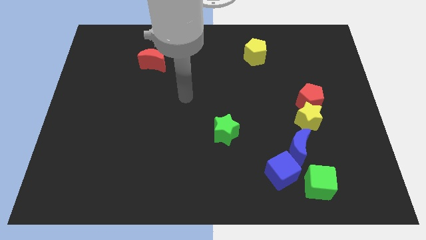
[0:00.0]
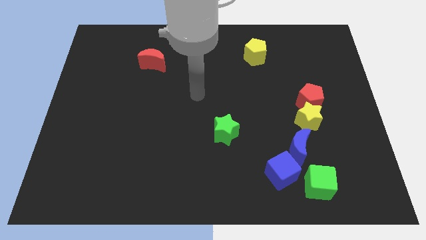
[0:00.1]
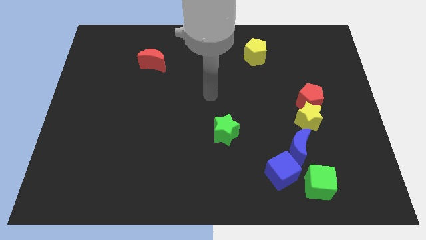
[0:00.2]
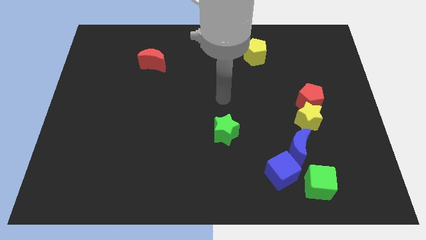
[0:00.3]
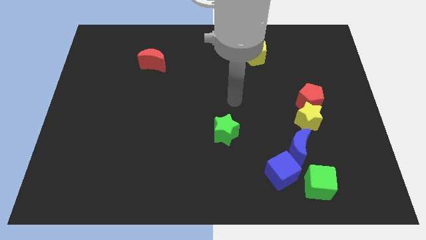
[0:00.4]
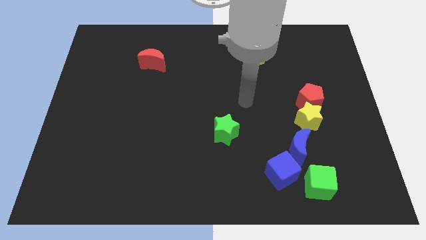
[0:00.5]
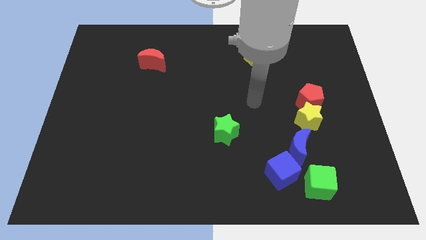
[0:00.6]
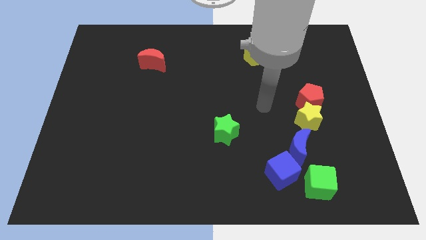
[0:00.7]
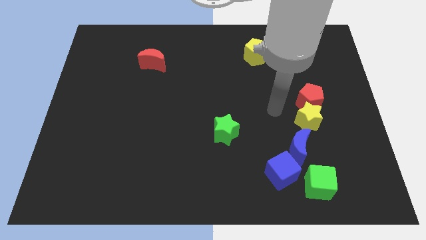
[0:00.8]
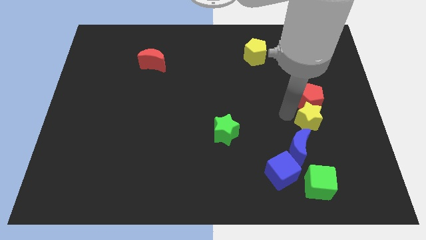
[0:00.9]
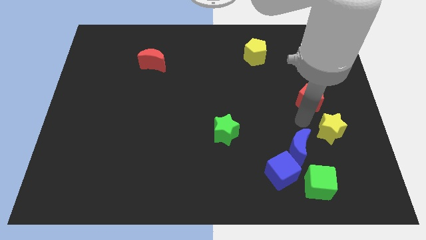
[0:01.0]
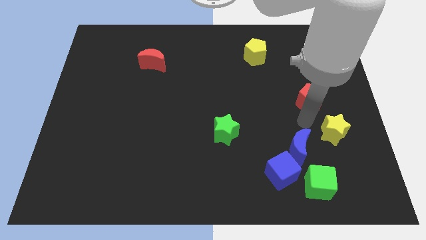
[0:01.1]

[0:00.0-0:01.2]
separate the red pentagon from the yellow star

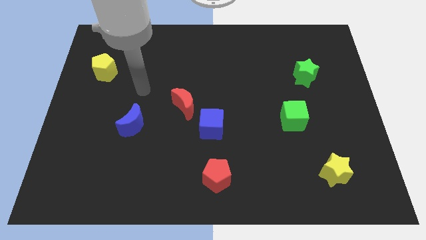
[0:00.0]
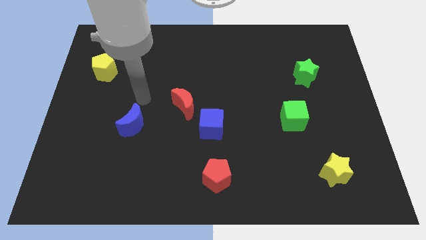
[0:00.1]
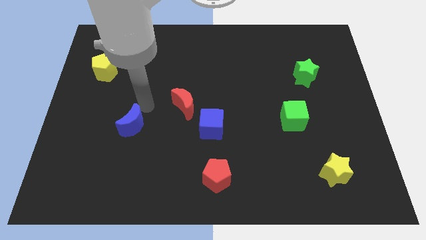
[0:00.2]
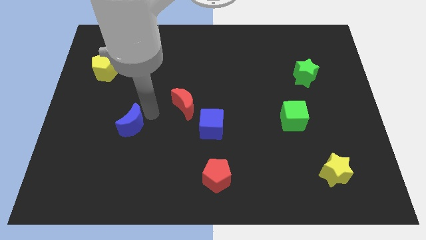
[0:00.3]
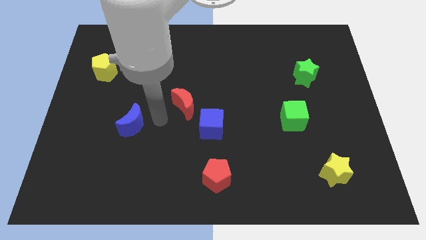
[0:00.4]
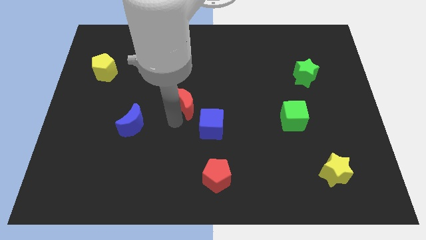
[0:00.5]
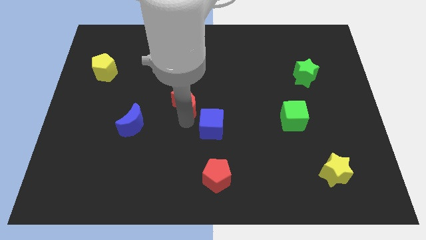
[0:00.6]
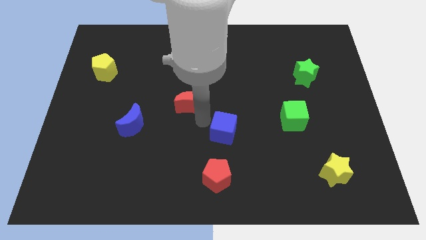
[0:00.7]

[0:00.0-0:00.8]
move the red moon away from the blue cube

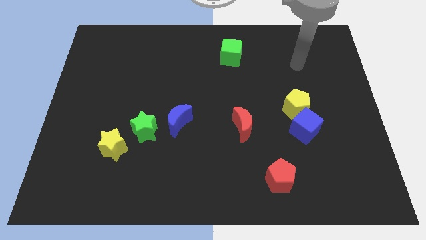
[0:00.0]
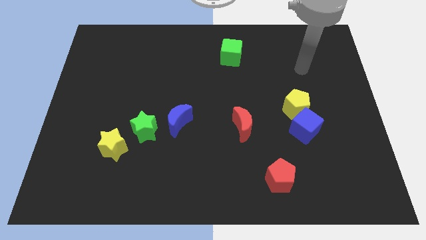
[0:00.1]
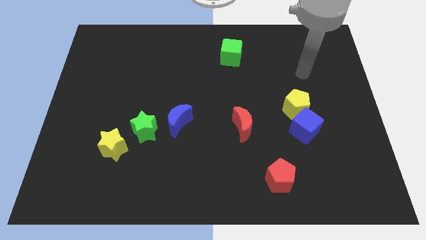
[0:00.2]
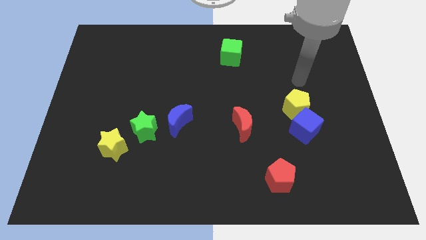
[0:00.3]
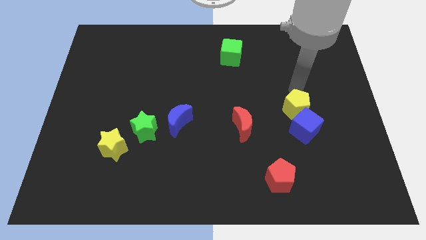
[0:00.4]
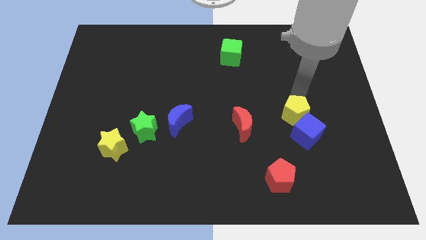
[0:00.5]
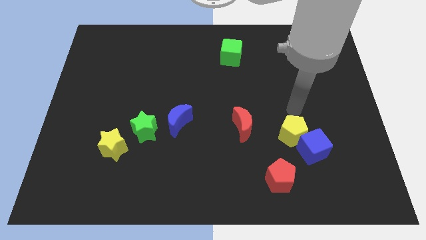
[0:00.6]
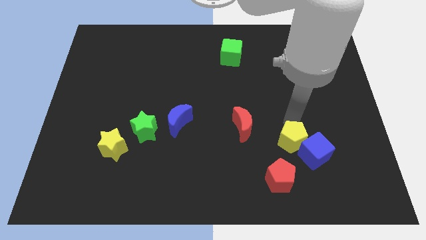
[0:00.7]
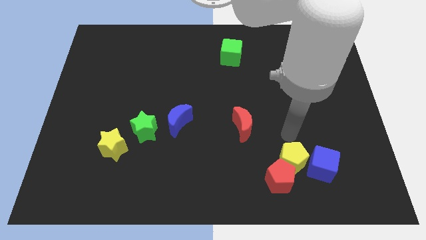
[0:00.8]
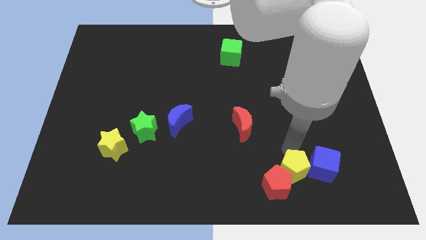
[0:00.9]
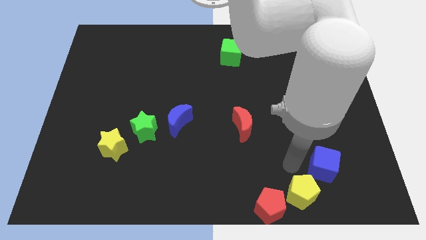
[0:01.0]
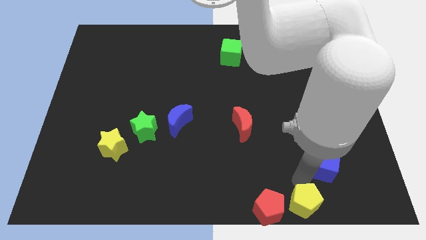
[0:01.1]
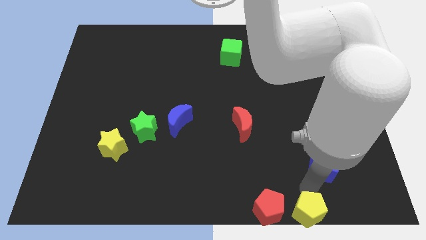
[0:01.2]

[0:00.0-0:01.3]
pull the blue cube apart from the yellow pentagon

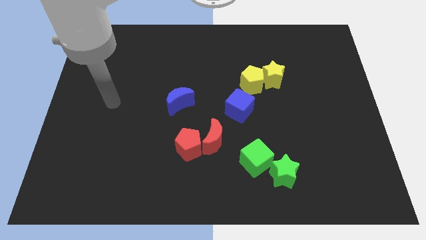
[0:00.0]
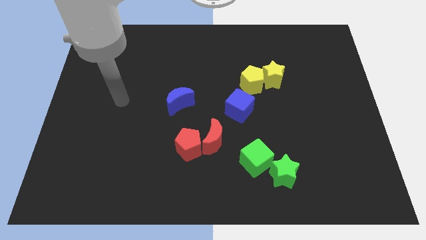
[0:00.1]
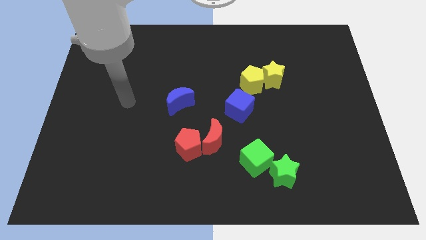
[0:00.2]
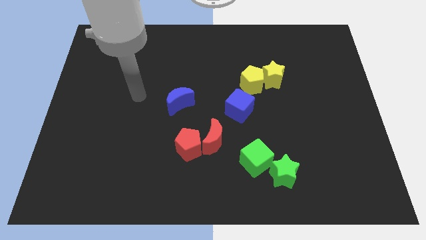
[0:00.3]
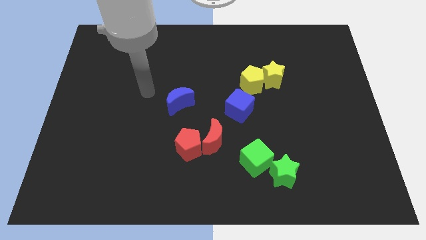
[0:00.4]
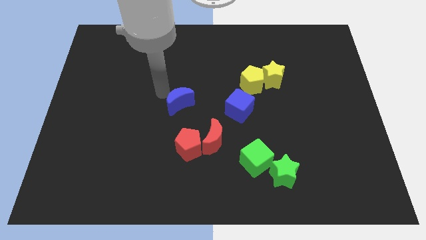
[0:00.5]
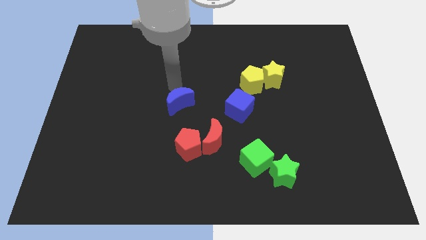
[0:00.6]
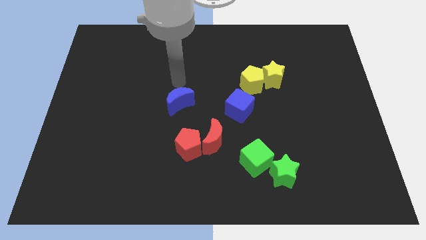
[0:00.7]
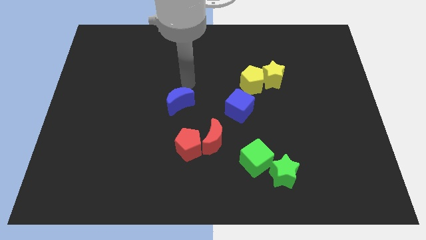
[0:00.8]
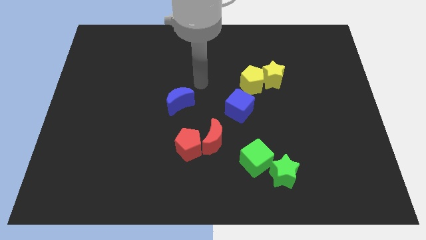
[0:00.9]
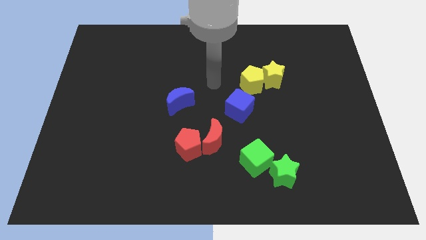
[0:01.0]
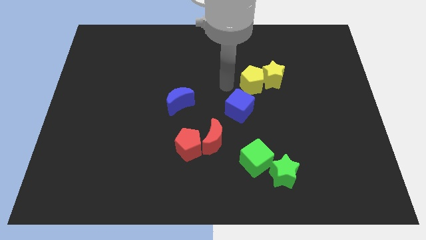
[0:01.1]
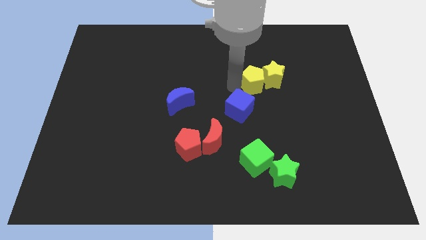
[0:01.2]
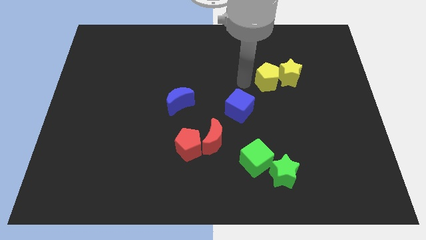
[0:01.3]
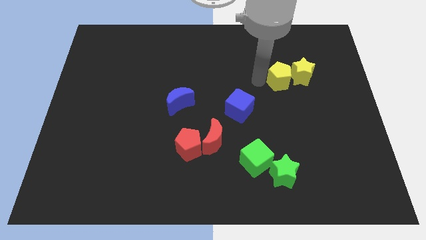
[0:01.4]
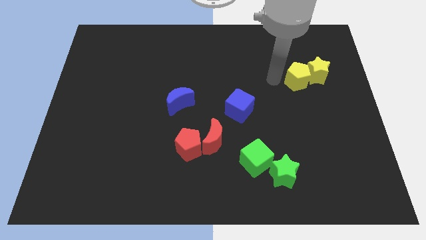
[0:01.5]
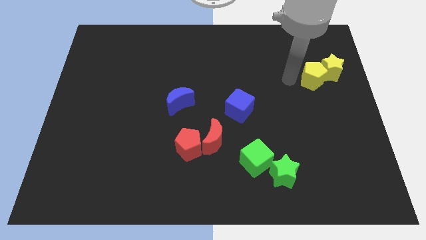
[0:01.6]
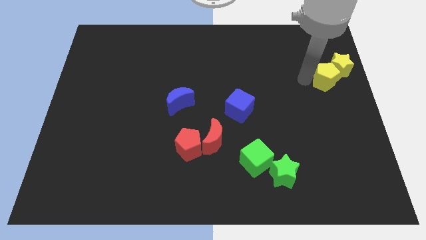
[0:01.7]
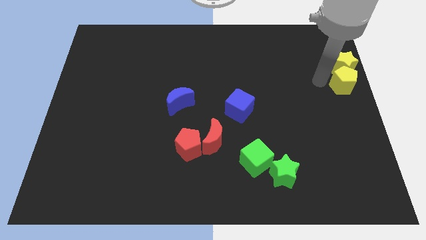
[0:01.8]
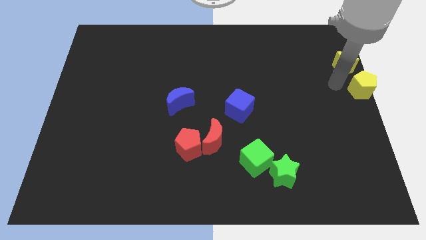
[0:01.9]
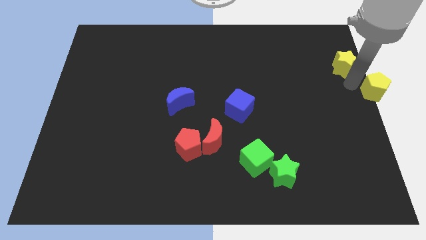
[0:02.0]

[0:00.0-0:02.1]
separate the yellow star from the yellow pentagon

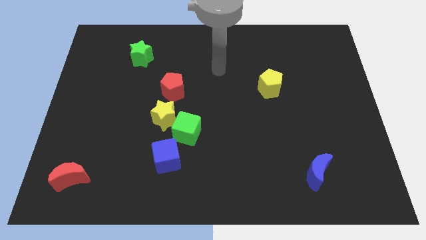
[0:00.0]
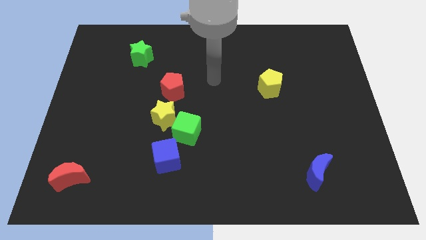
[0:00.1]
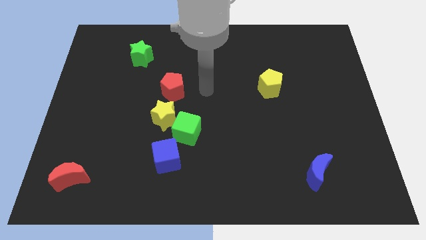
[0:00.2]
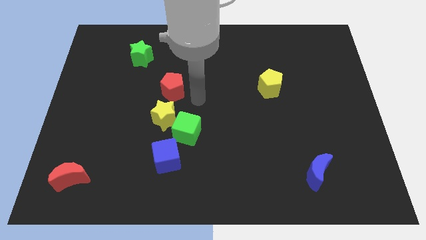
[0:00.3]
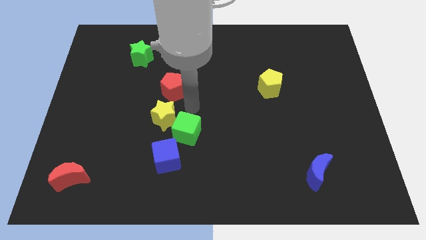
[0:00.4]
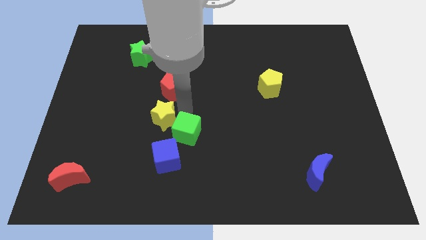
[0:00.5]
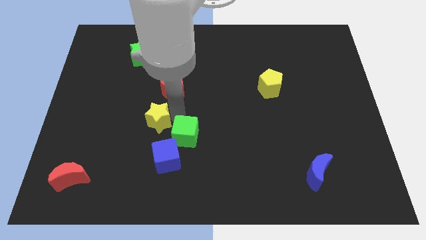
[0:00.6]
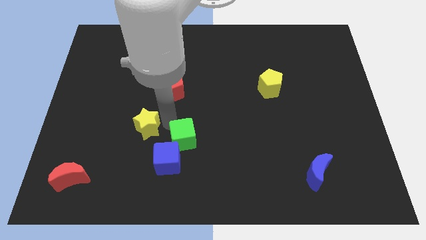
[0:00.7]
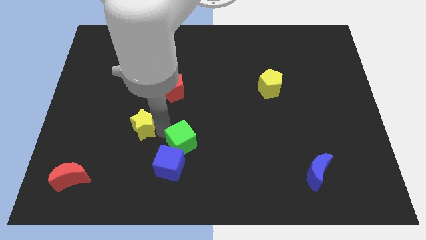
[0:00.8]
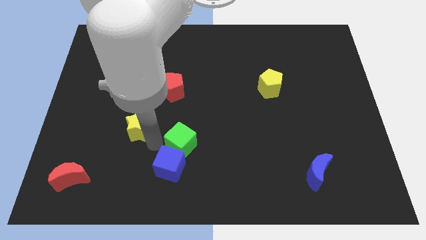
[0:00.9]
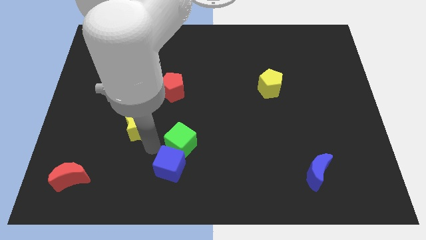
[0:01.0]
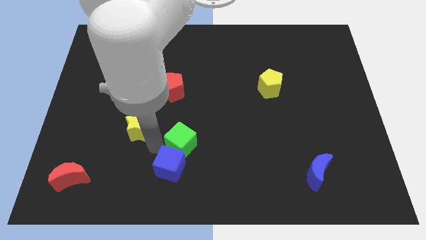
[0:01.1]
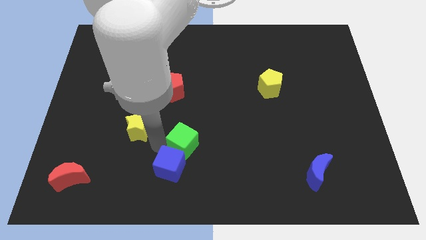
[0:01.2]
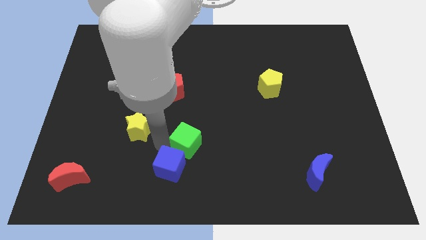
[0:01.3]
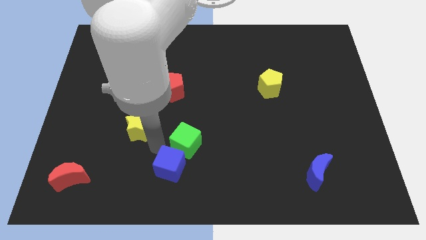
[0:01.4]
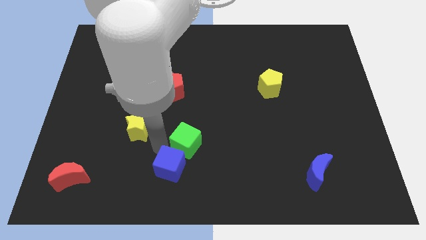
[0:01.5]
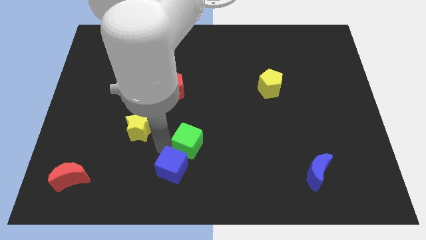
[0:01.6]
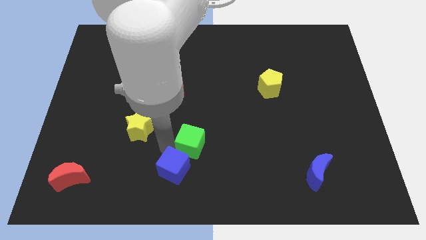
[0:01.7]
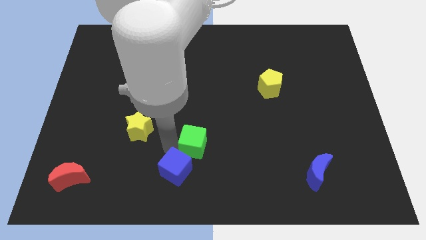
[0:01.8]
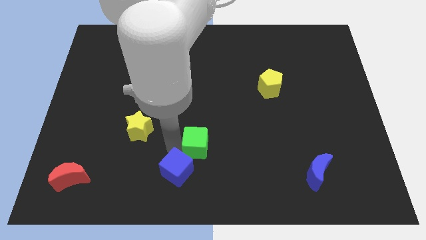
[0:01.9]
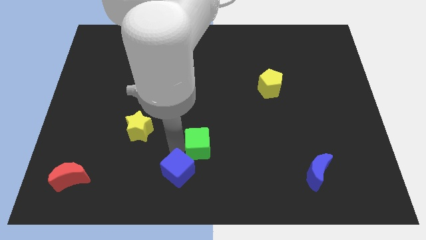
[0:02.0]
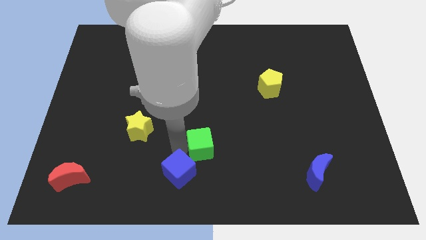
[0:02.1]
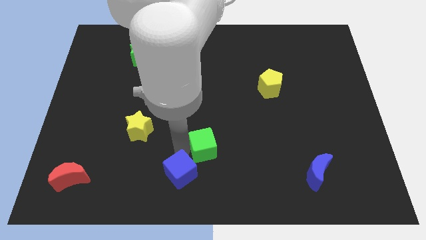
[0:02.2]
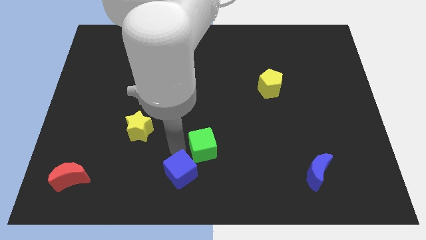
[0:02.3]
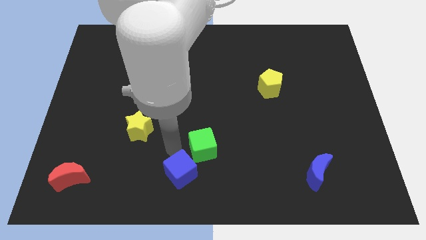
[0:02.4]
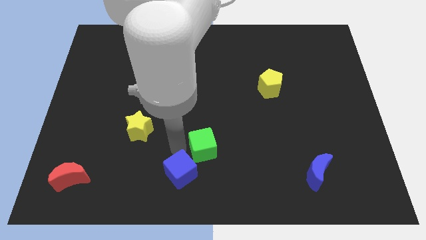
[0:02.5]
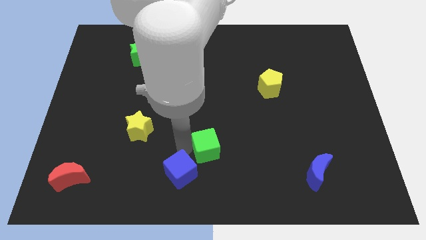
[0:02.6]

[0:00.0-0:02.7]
pull the green cube apart from the yellow star and blue cube

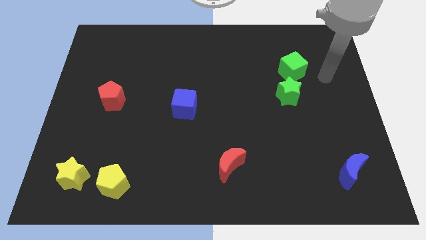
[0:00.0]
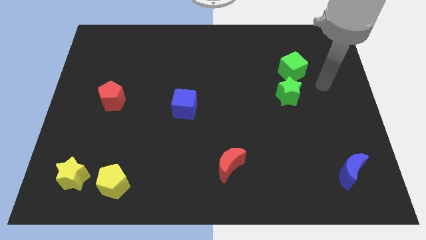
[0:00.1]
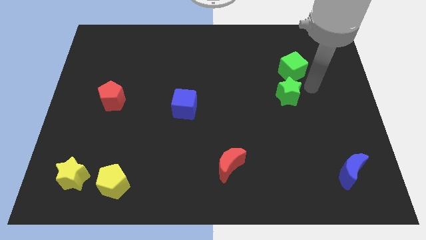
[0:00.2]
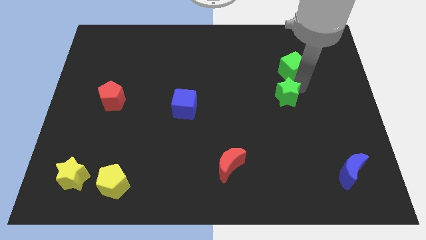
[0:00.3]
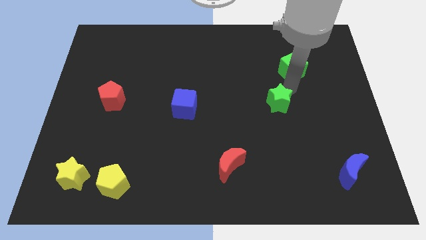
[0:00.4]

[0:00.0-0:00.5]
pull the green cube apart from the green star

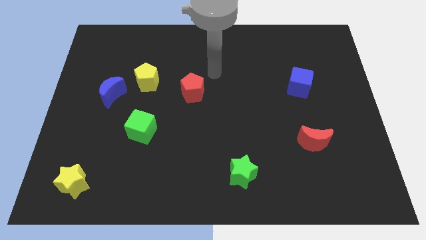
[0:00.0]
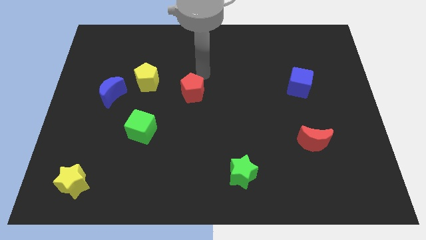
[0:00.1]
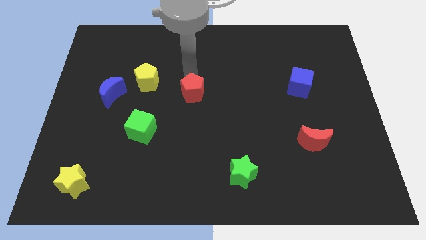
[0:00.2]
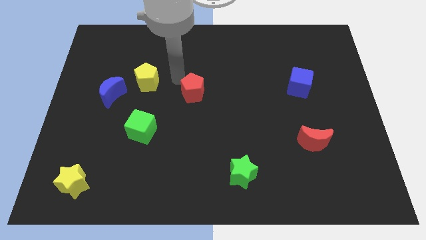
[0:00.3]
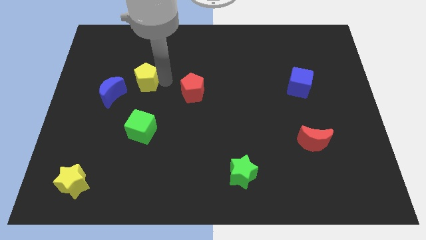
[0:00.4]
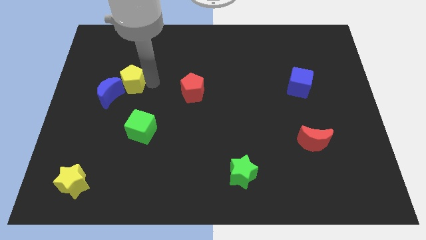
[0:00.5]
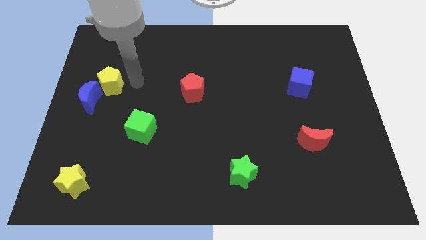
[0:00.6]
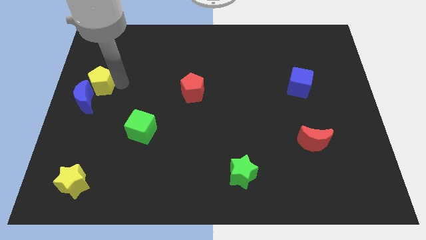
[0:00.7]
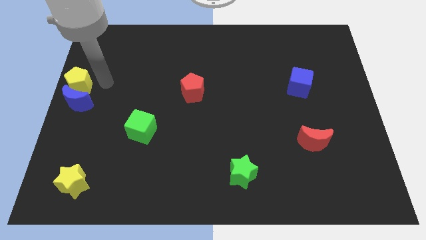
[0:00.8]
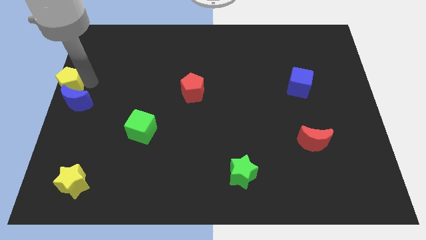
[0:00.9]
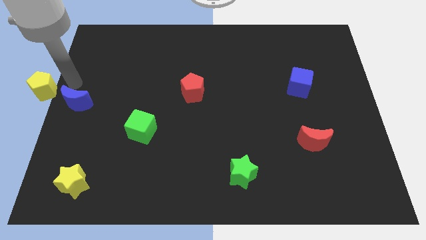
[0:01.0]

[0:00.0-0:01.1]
pull the blue moon apart from the yellow pentagon
